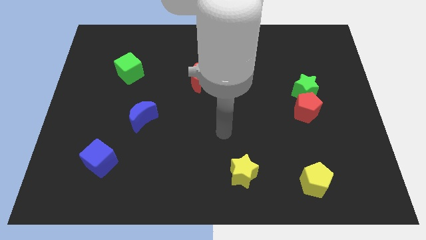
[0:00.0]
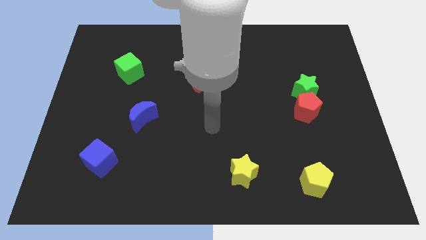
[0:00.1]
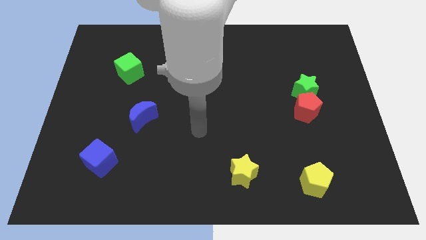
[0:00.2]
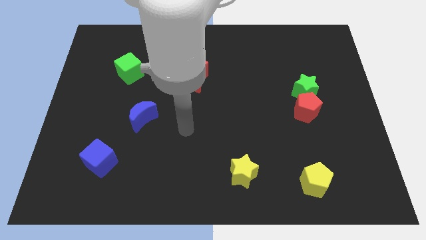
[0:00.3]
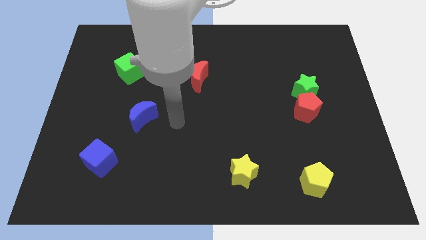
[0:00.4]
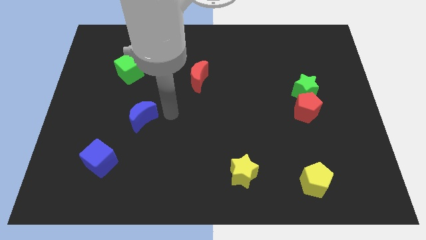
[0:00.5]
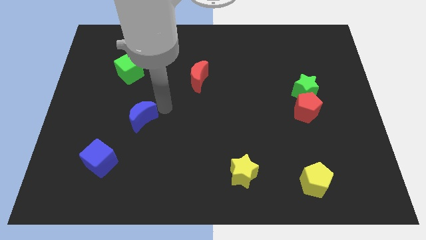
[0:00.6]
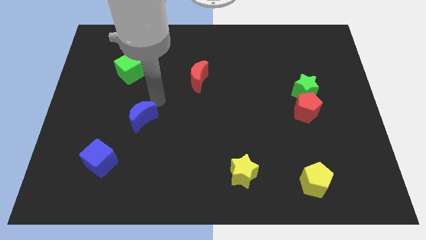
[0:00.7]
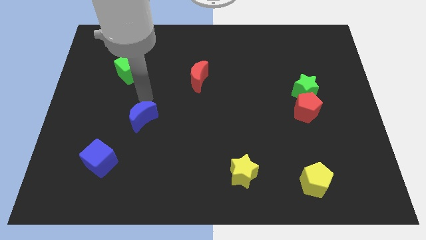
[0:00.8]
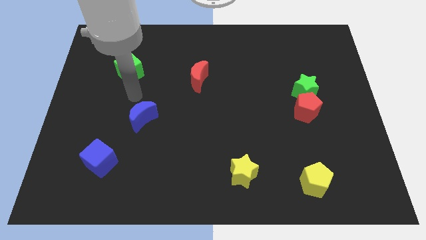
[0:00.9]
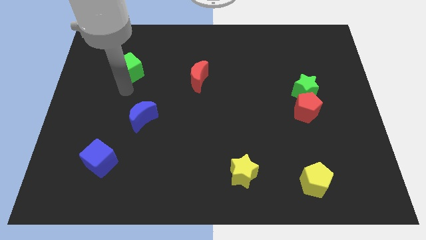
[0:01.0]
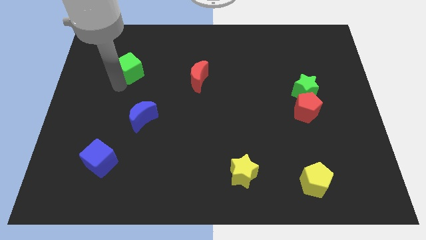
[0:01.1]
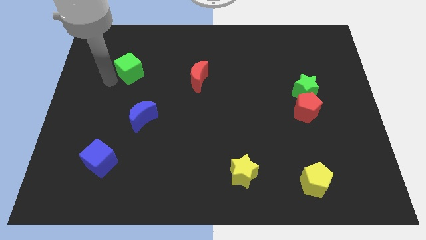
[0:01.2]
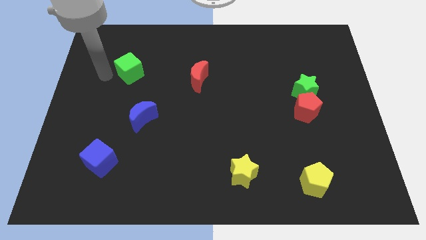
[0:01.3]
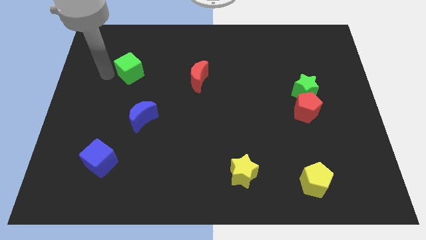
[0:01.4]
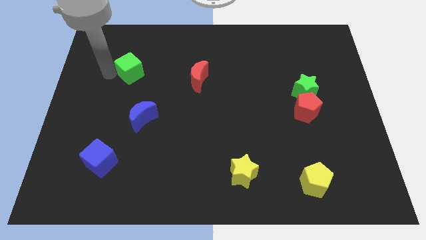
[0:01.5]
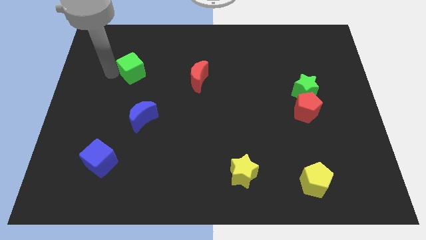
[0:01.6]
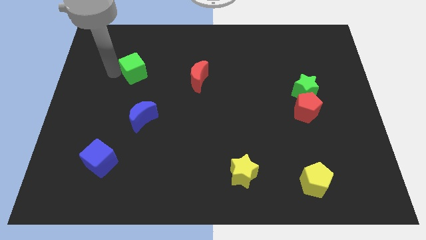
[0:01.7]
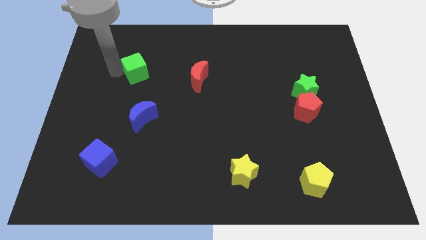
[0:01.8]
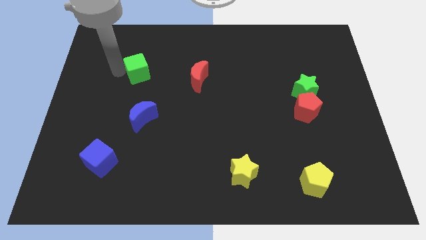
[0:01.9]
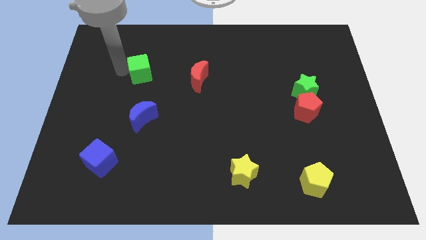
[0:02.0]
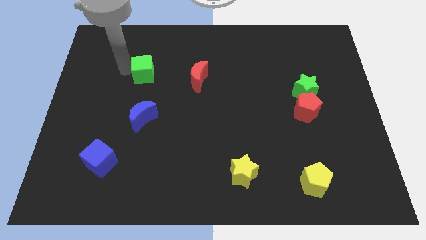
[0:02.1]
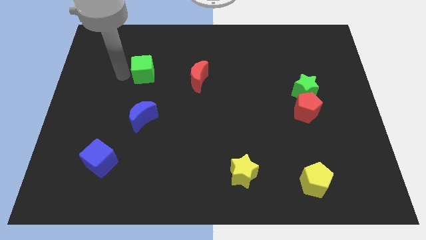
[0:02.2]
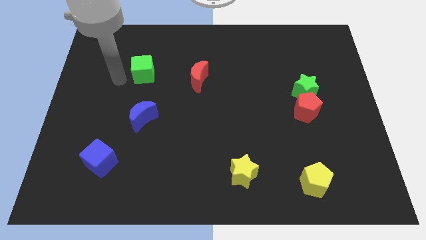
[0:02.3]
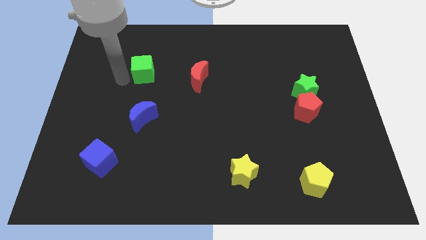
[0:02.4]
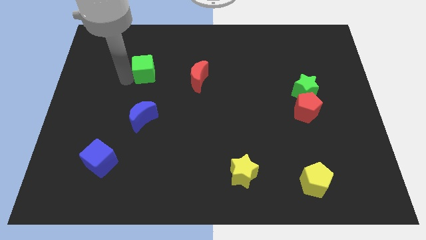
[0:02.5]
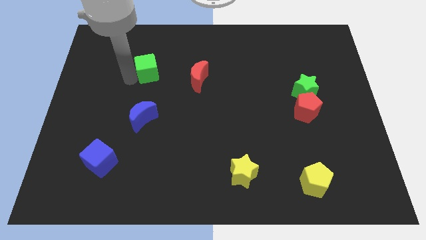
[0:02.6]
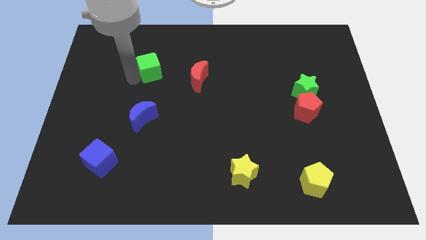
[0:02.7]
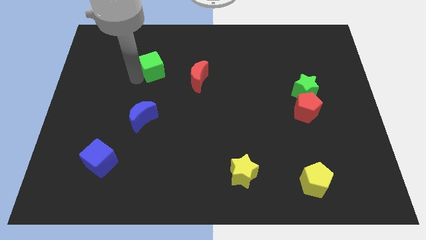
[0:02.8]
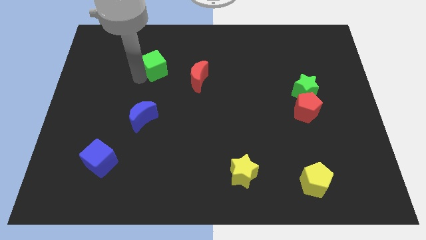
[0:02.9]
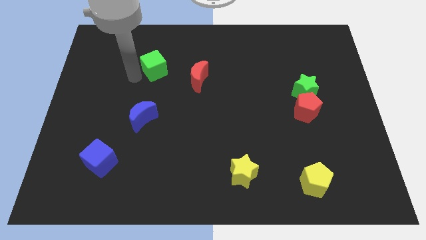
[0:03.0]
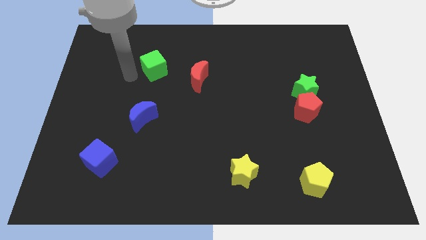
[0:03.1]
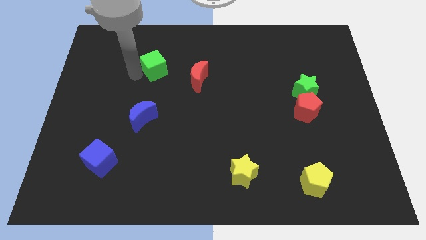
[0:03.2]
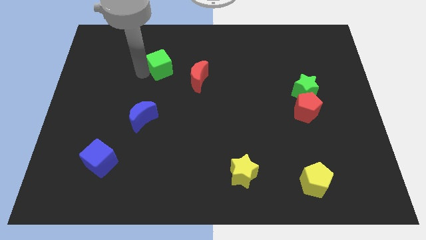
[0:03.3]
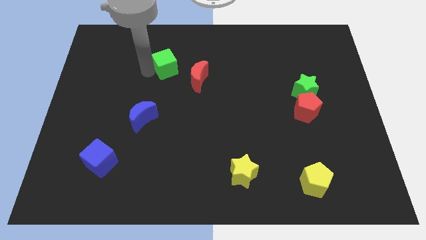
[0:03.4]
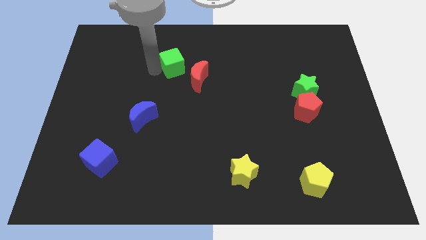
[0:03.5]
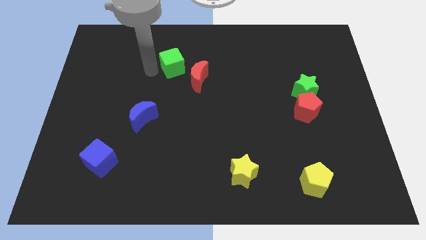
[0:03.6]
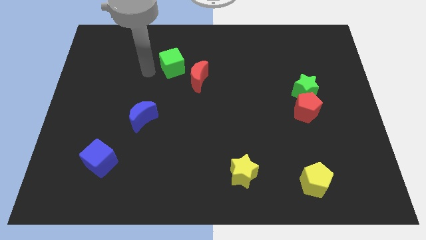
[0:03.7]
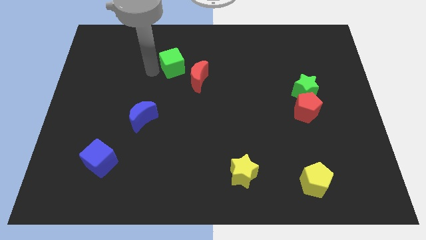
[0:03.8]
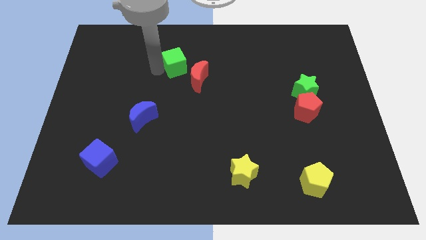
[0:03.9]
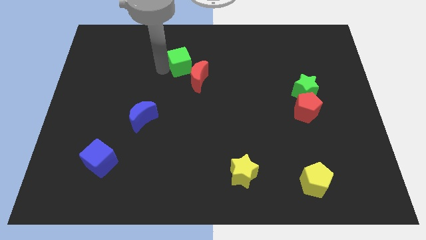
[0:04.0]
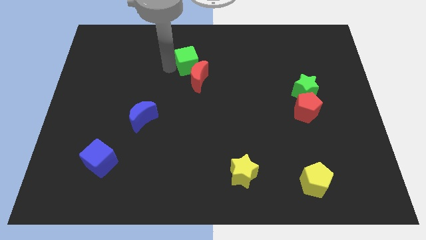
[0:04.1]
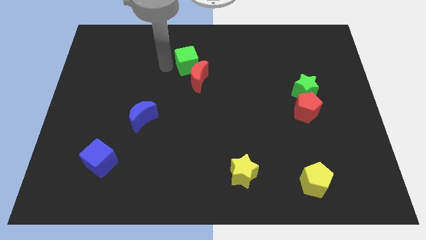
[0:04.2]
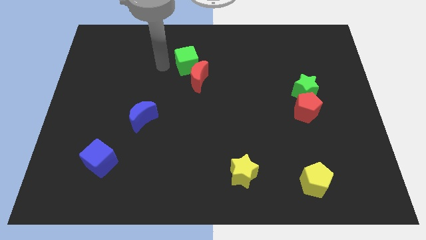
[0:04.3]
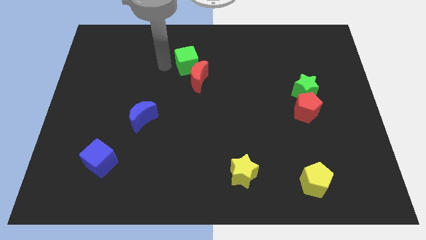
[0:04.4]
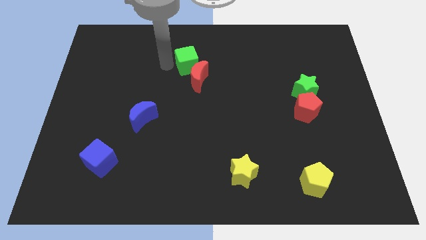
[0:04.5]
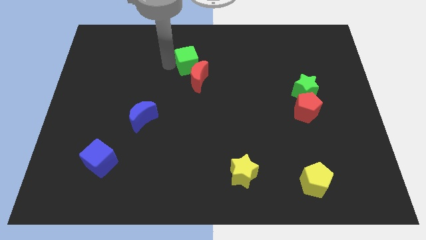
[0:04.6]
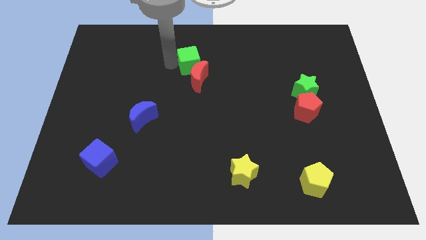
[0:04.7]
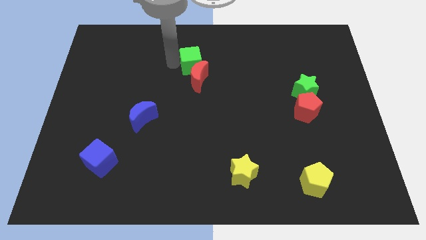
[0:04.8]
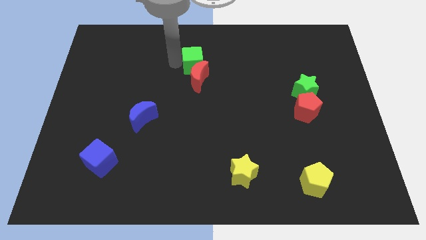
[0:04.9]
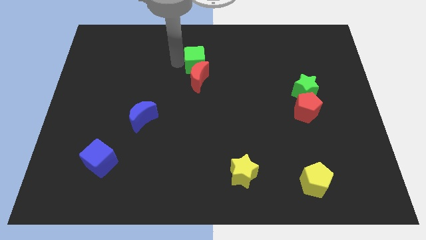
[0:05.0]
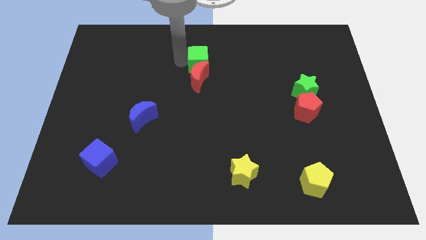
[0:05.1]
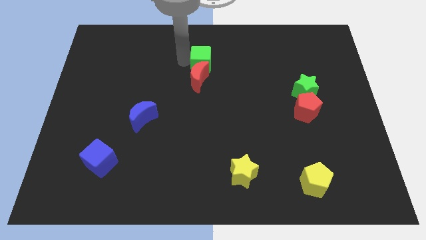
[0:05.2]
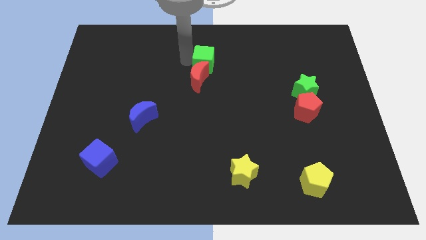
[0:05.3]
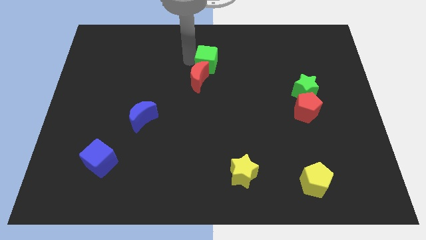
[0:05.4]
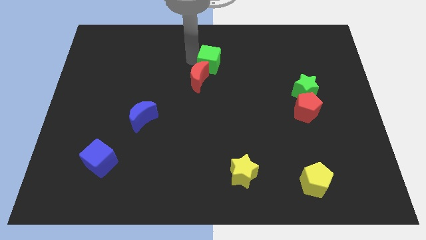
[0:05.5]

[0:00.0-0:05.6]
push the green cube right

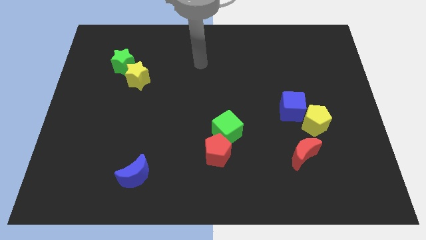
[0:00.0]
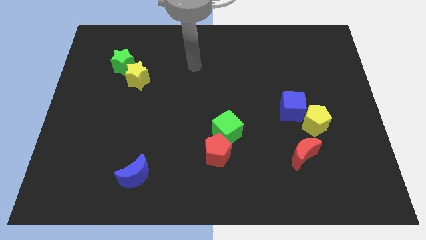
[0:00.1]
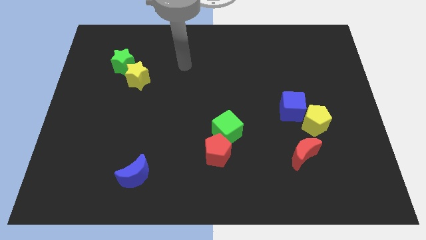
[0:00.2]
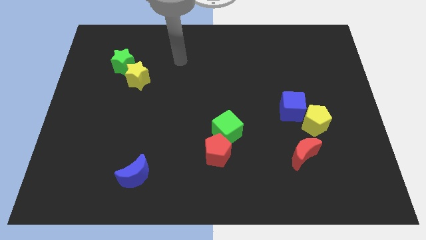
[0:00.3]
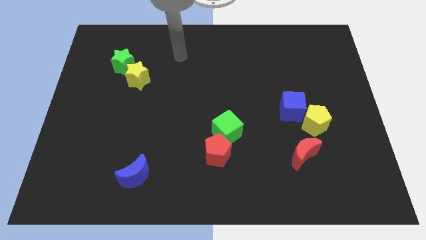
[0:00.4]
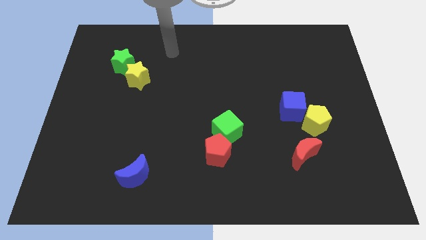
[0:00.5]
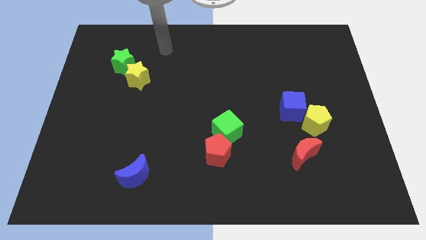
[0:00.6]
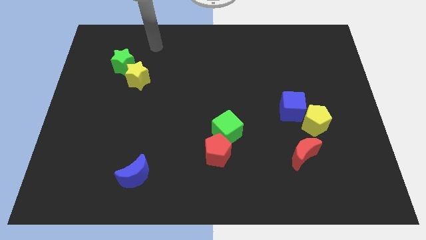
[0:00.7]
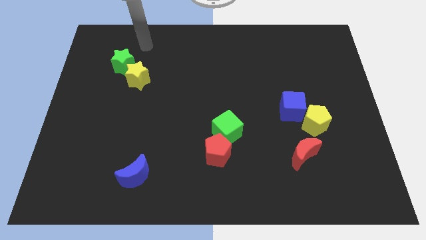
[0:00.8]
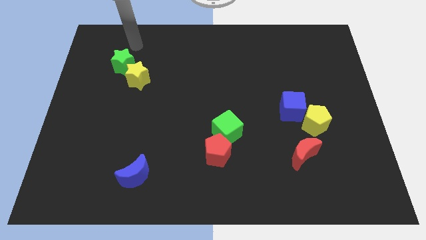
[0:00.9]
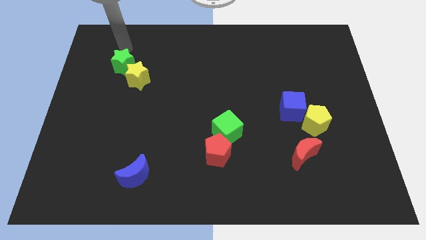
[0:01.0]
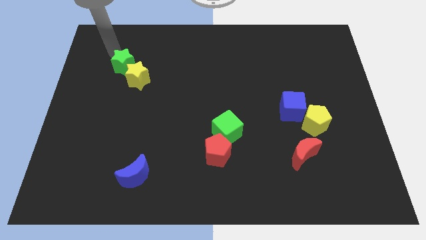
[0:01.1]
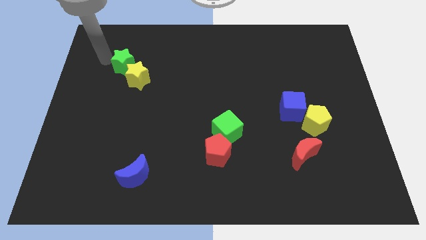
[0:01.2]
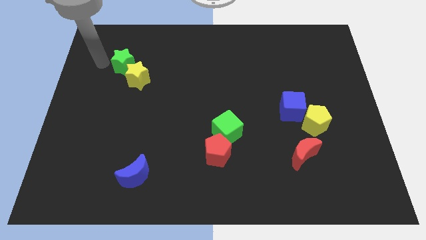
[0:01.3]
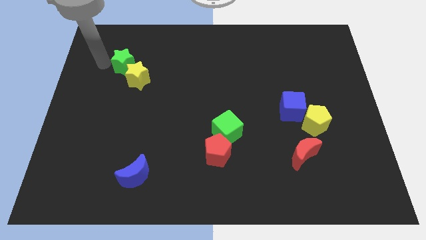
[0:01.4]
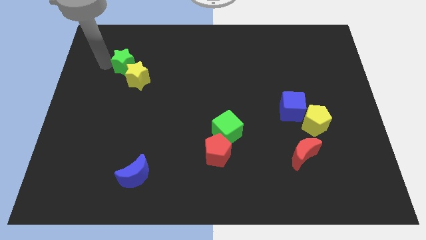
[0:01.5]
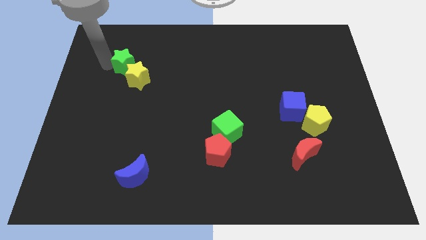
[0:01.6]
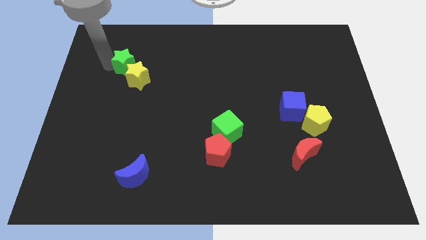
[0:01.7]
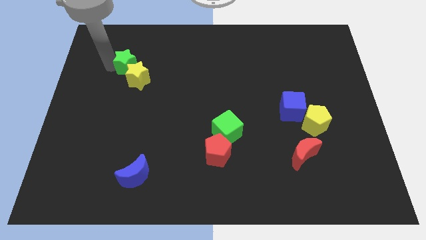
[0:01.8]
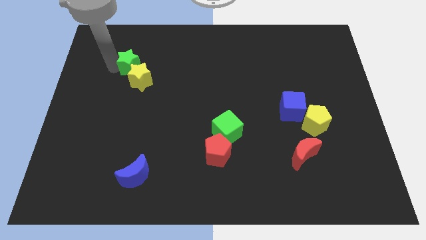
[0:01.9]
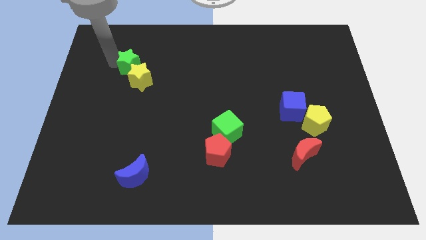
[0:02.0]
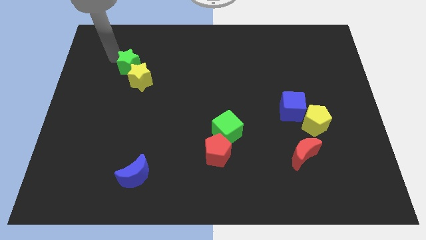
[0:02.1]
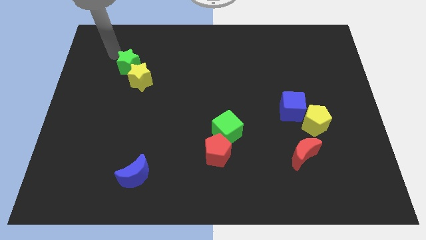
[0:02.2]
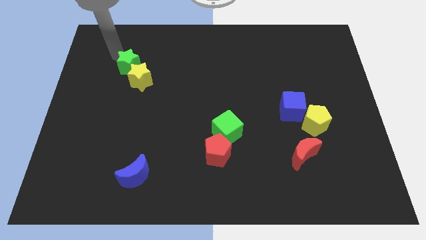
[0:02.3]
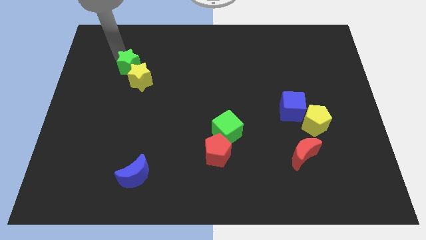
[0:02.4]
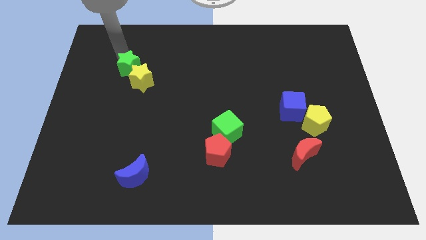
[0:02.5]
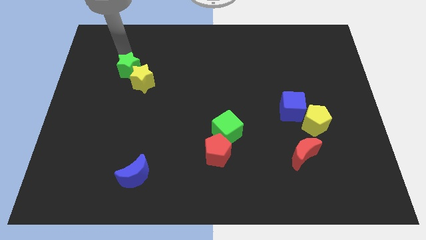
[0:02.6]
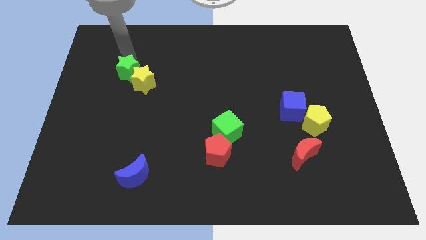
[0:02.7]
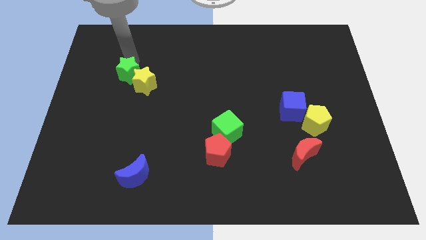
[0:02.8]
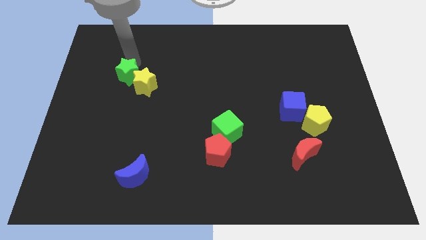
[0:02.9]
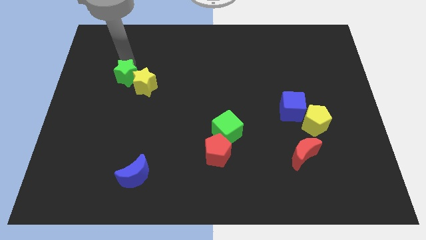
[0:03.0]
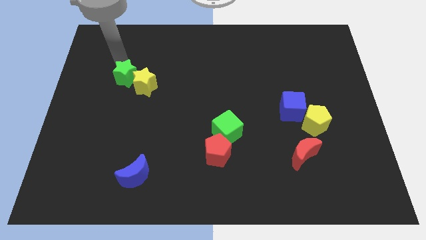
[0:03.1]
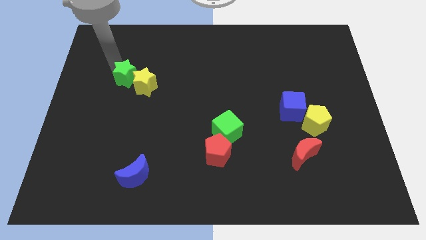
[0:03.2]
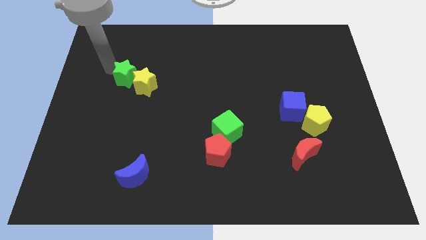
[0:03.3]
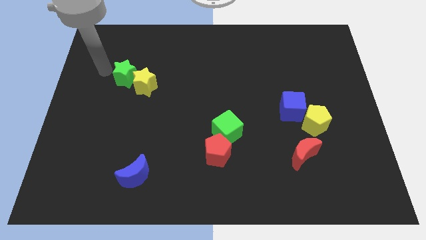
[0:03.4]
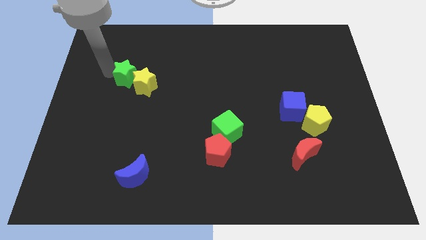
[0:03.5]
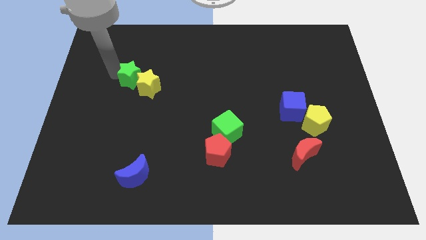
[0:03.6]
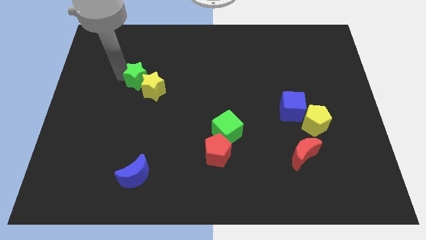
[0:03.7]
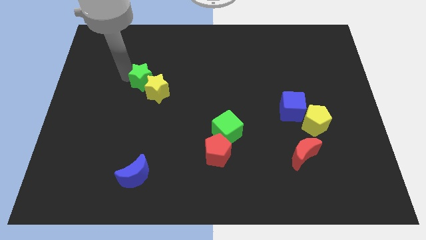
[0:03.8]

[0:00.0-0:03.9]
slide the green star a little downwards and to the right diagonally
